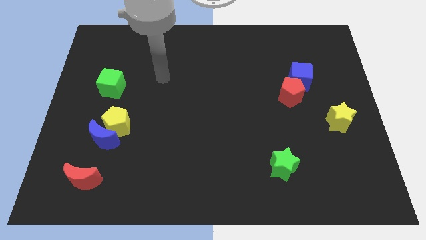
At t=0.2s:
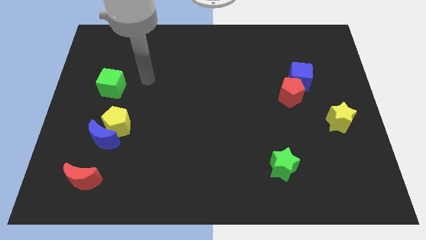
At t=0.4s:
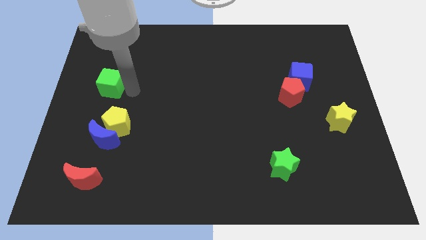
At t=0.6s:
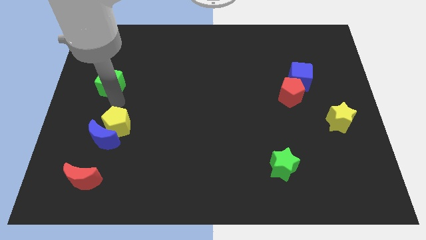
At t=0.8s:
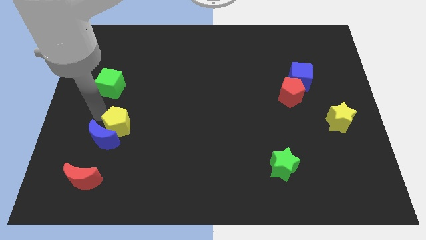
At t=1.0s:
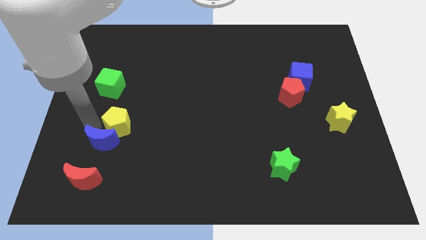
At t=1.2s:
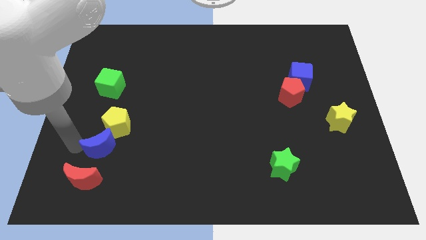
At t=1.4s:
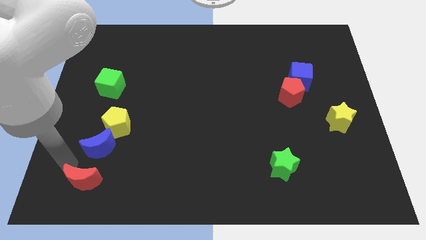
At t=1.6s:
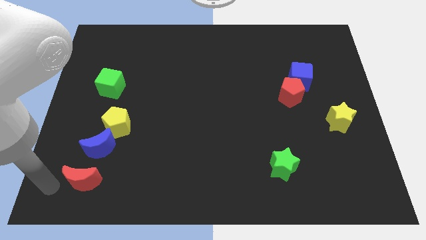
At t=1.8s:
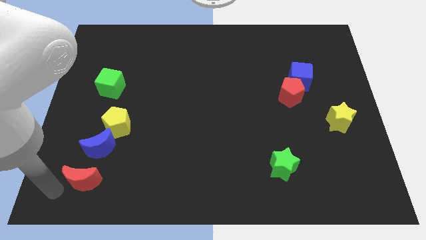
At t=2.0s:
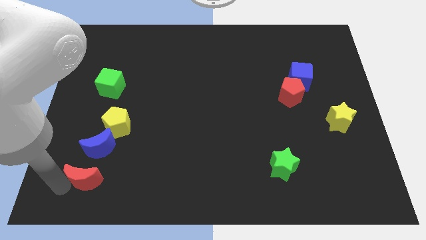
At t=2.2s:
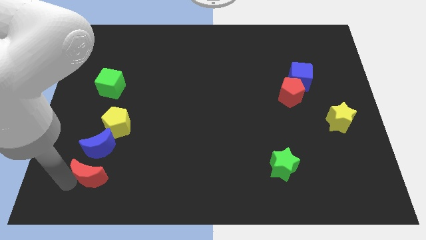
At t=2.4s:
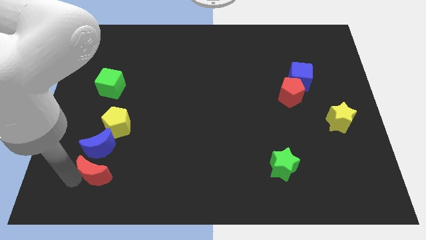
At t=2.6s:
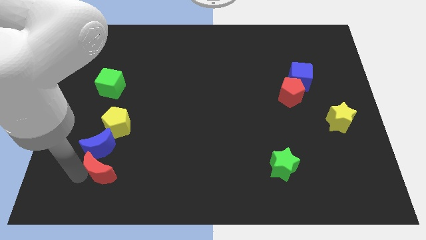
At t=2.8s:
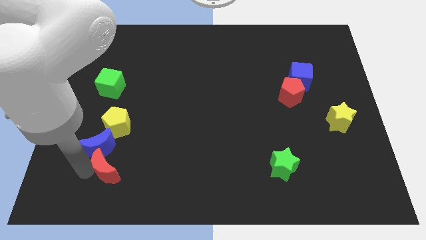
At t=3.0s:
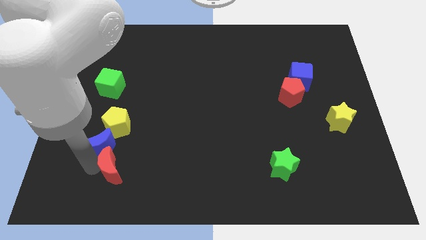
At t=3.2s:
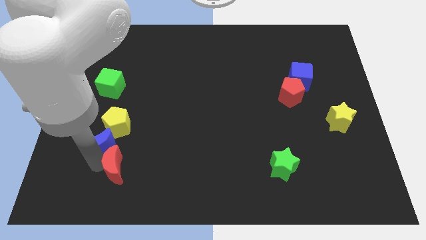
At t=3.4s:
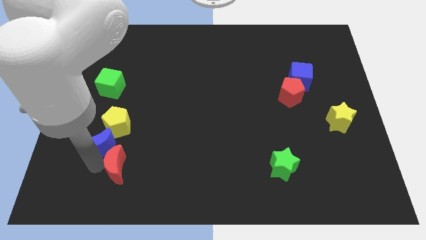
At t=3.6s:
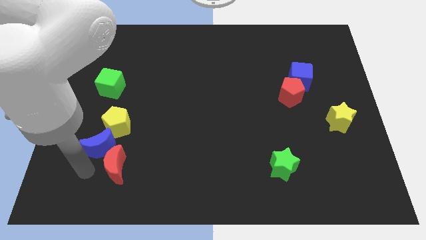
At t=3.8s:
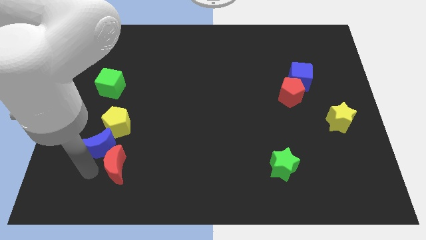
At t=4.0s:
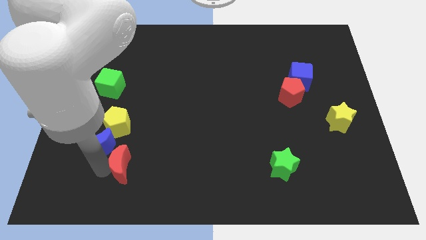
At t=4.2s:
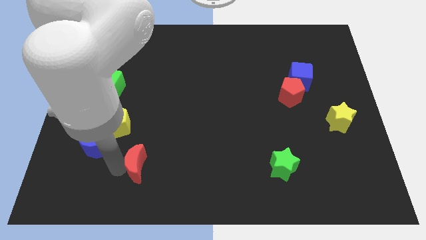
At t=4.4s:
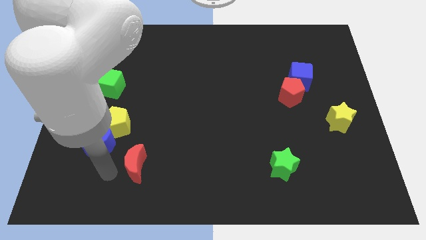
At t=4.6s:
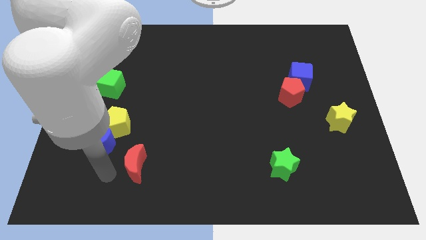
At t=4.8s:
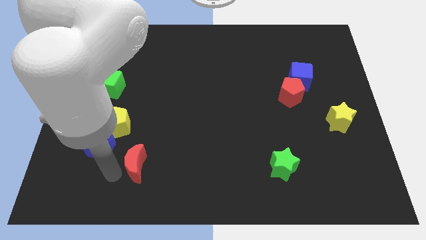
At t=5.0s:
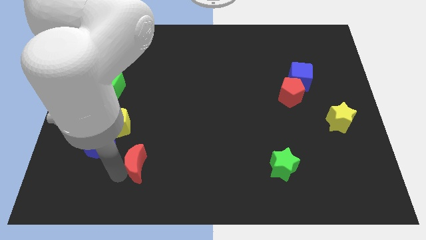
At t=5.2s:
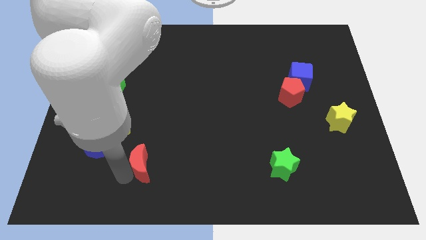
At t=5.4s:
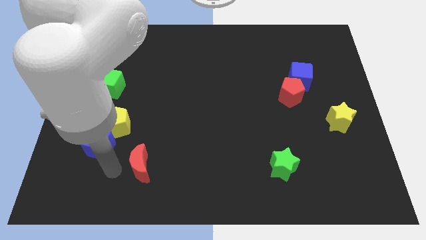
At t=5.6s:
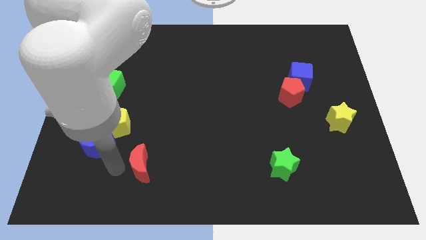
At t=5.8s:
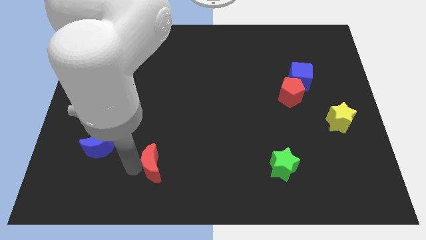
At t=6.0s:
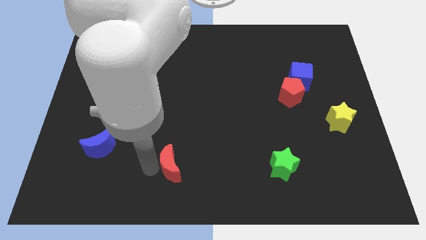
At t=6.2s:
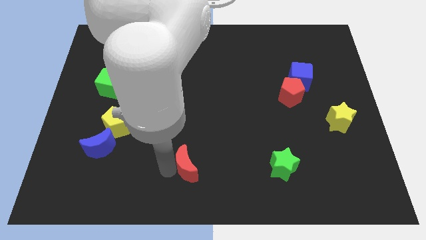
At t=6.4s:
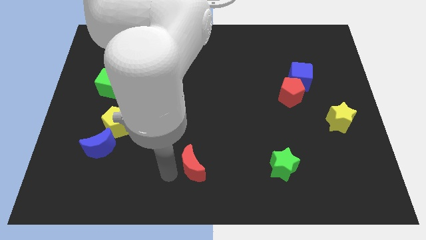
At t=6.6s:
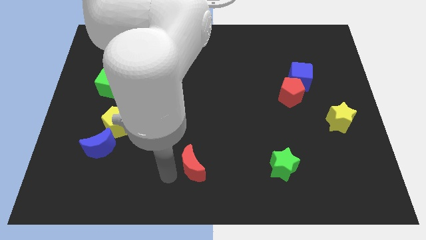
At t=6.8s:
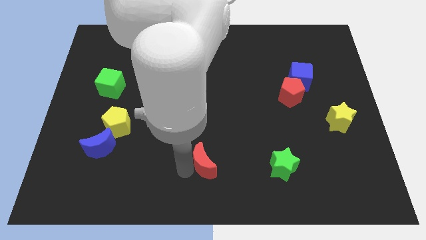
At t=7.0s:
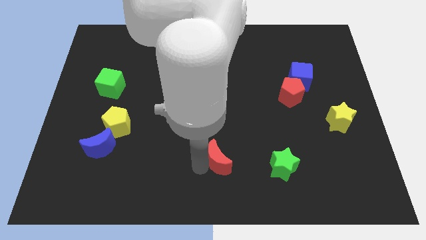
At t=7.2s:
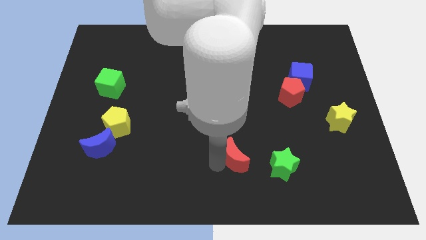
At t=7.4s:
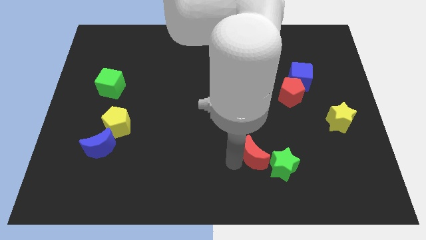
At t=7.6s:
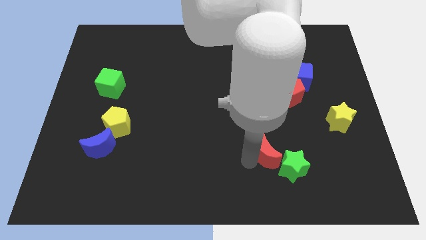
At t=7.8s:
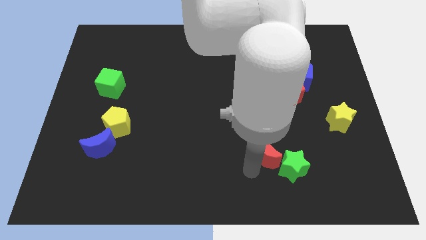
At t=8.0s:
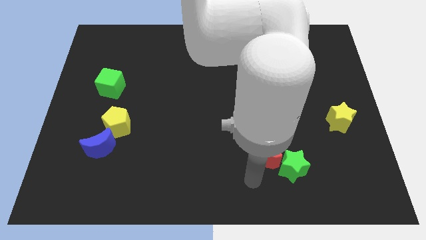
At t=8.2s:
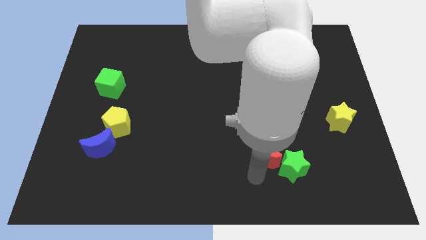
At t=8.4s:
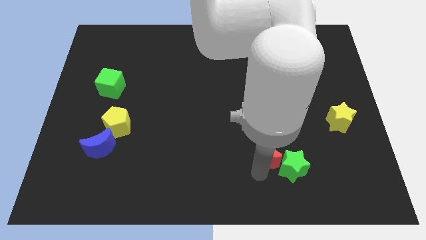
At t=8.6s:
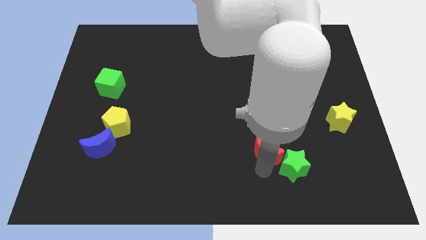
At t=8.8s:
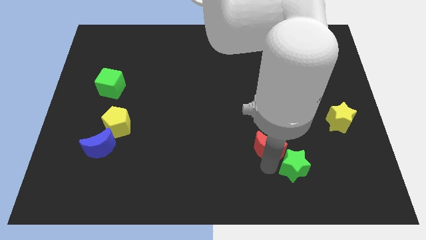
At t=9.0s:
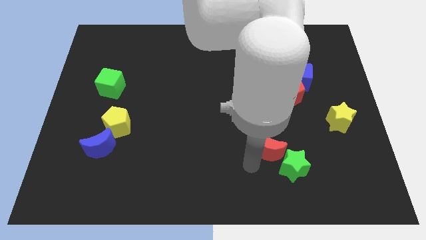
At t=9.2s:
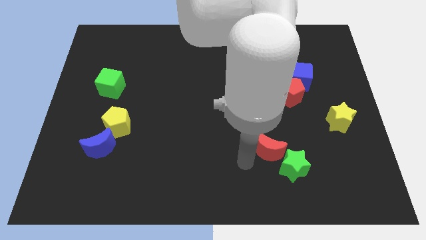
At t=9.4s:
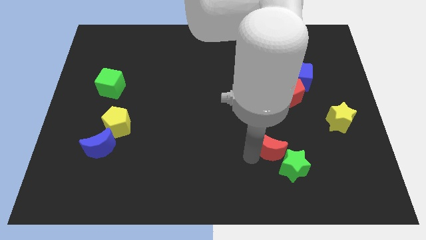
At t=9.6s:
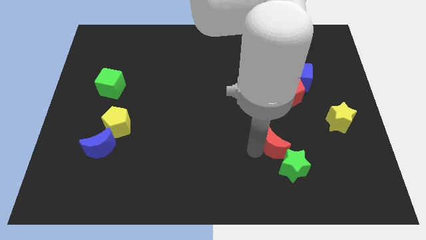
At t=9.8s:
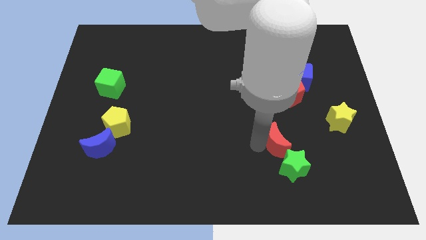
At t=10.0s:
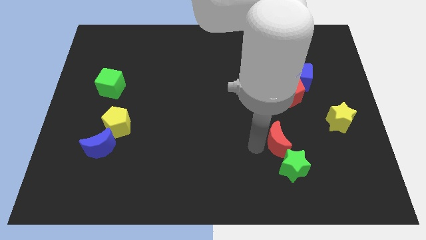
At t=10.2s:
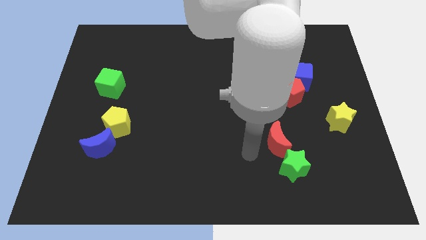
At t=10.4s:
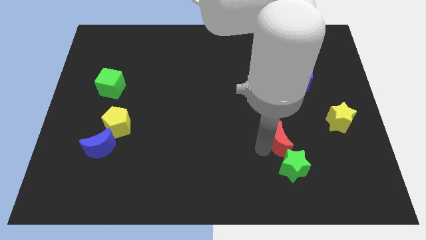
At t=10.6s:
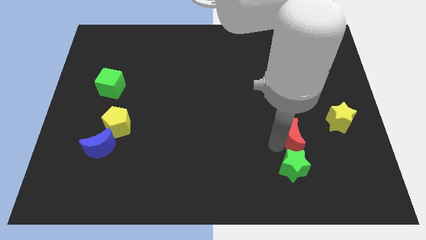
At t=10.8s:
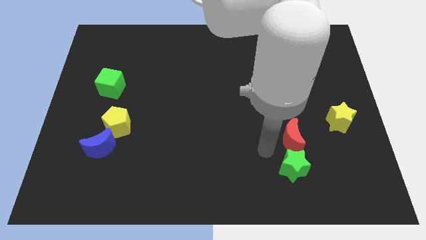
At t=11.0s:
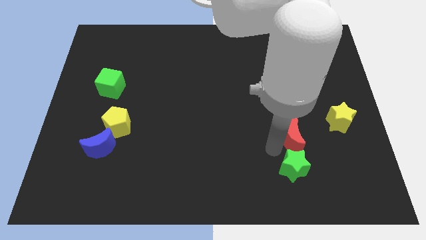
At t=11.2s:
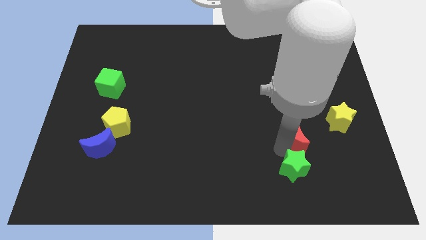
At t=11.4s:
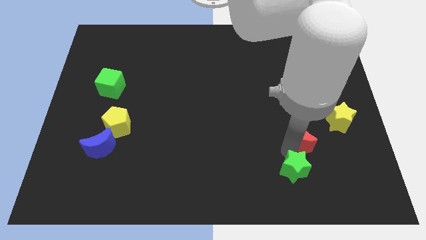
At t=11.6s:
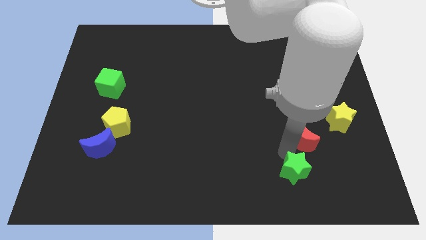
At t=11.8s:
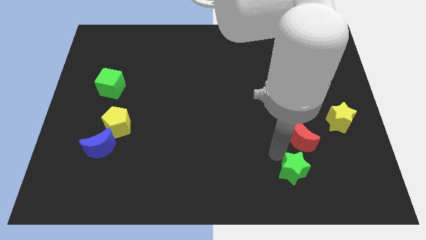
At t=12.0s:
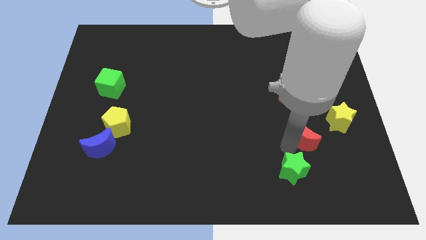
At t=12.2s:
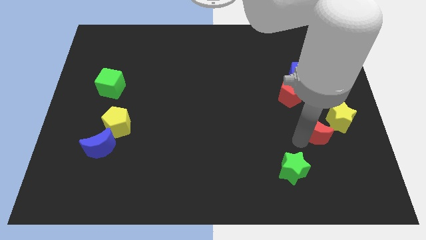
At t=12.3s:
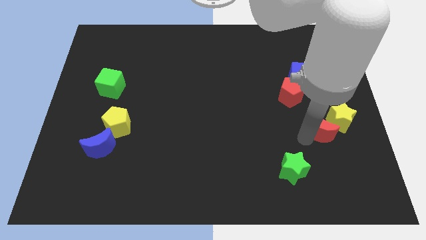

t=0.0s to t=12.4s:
push the red moon to the yellow star
